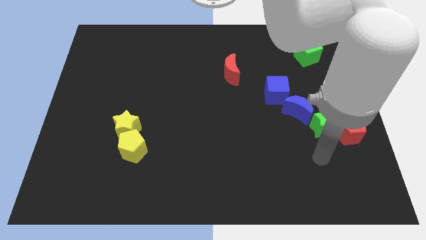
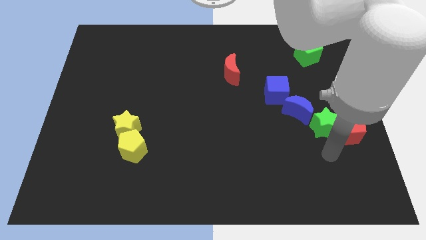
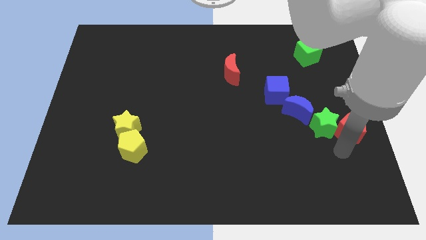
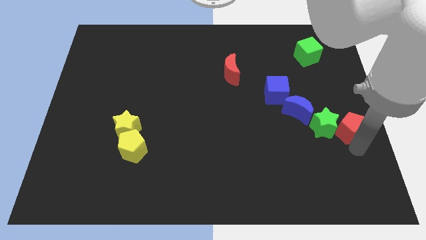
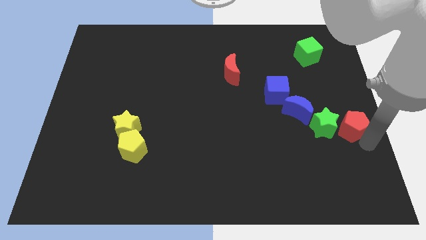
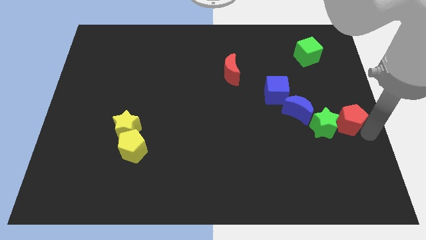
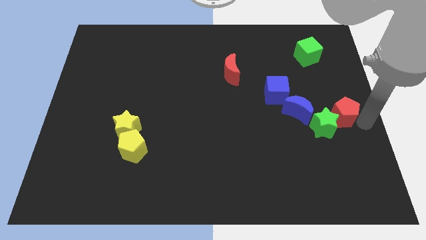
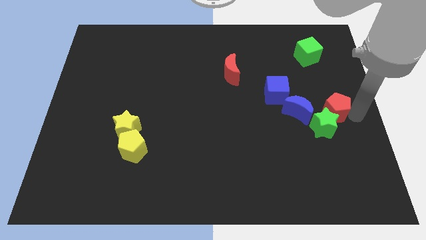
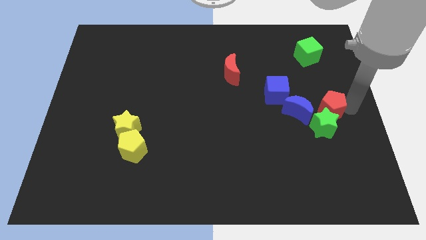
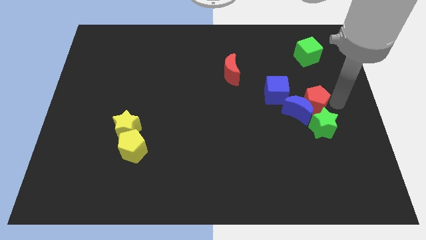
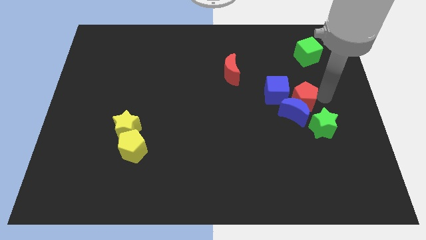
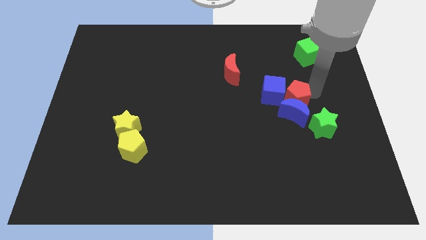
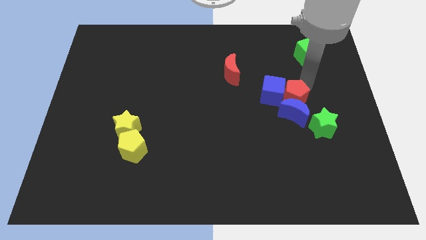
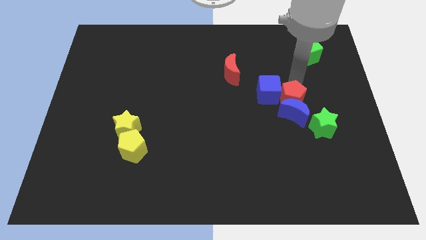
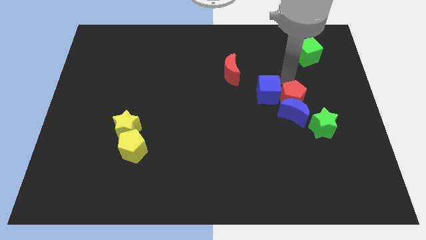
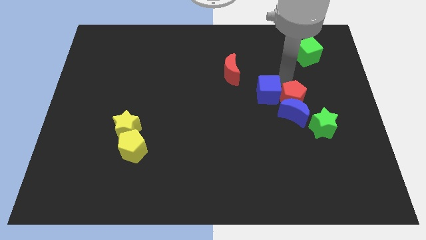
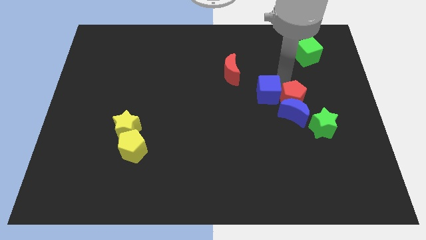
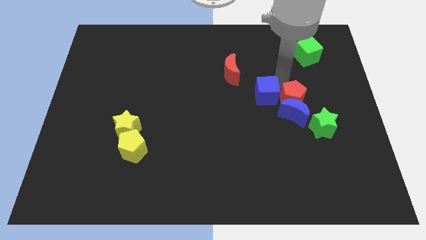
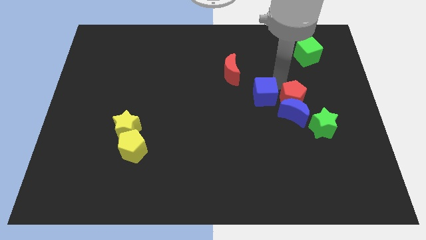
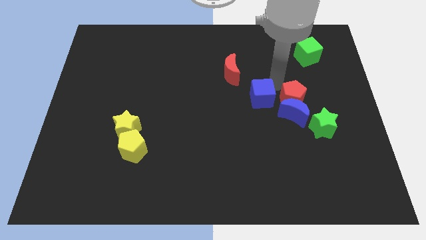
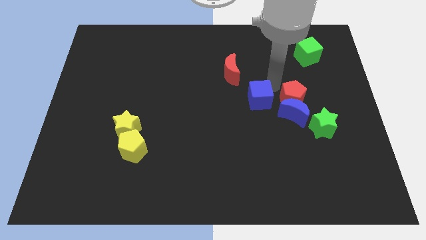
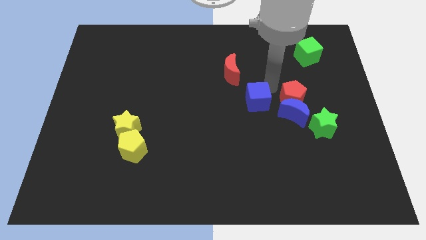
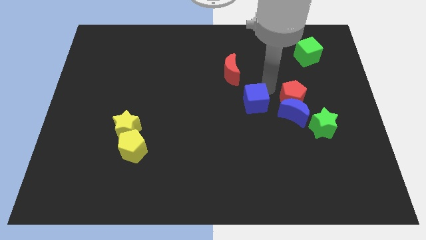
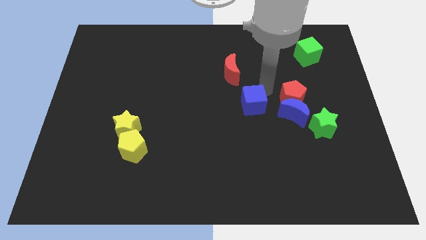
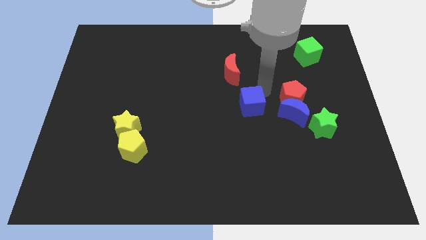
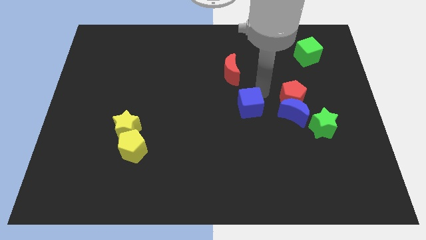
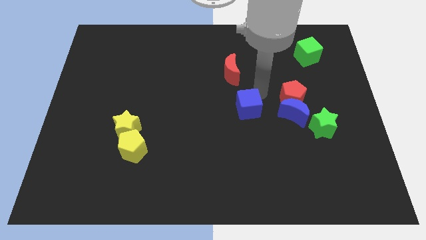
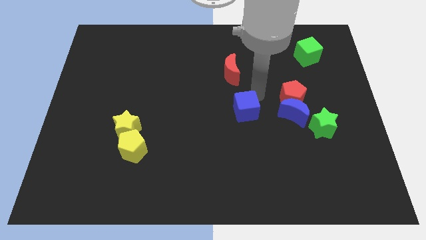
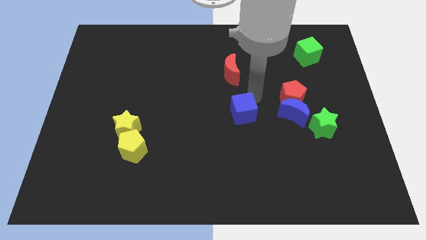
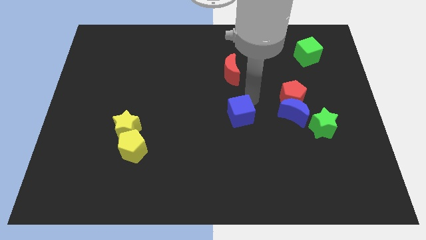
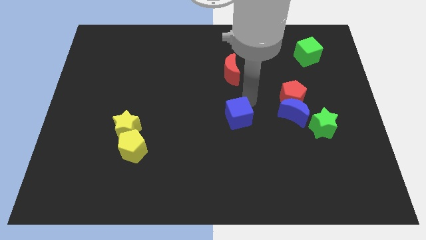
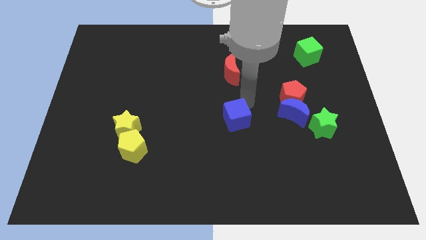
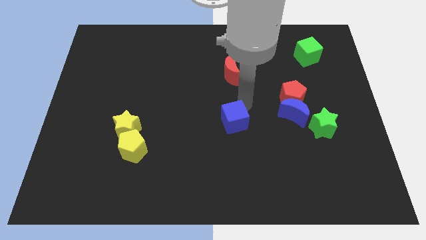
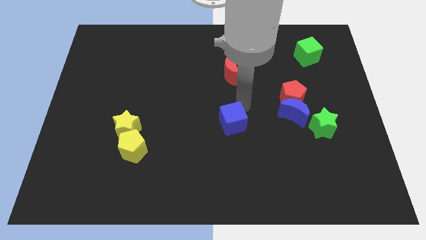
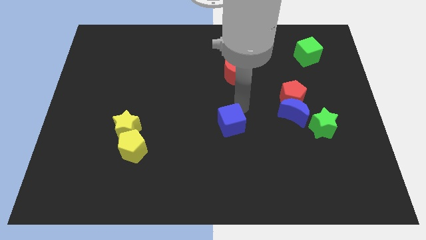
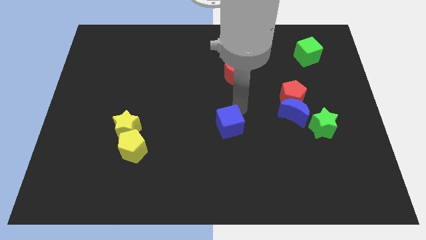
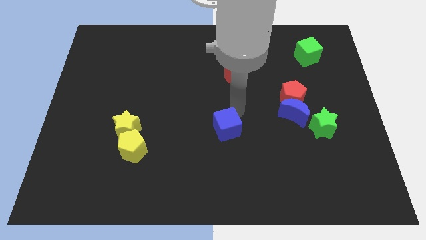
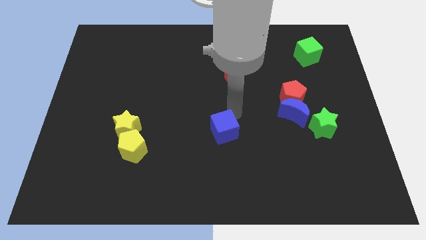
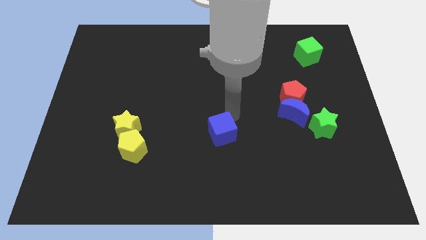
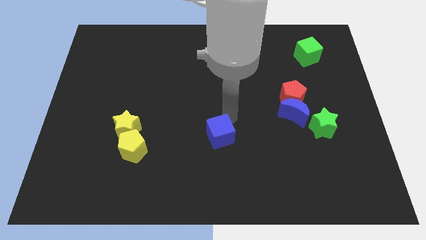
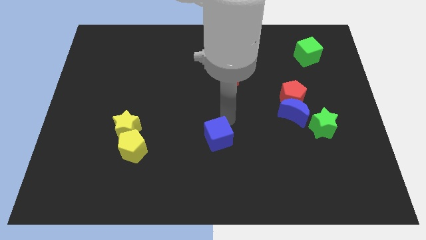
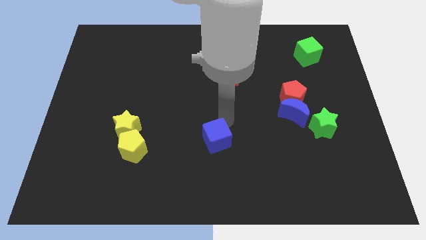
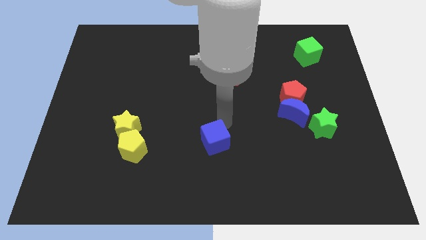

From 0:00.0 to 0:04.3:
slide the blue cube downwards and to the left diagonally

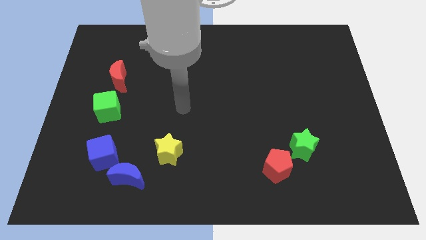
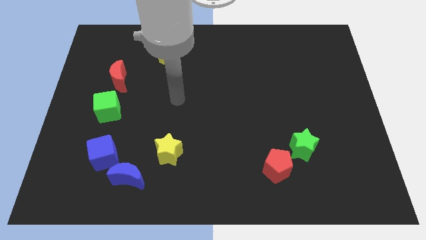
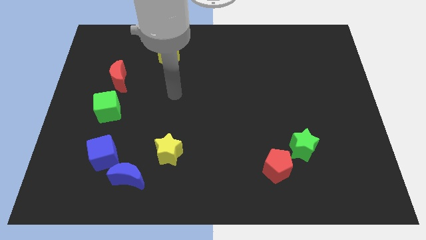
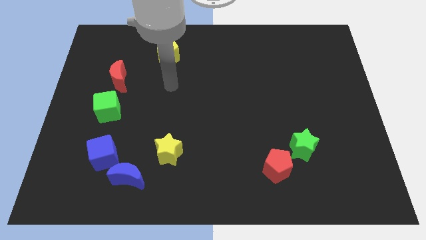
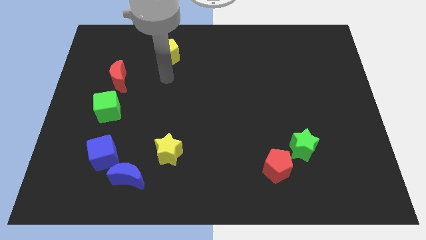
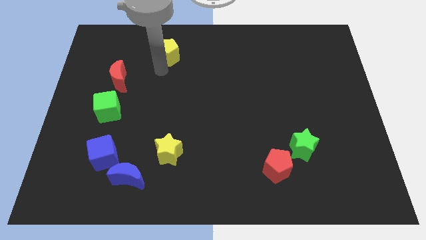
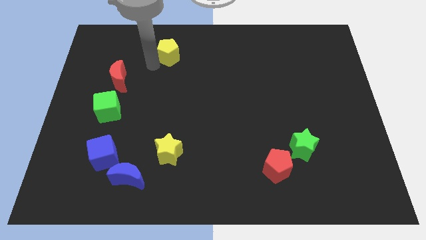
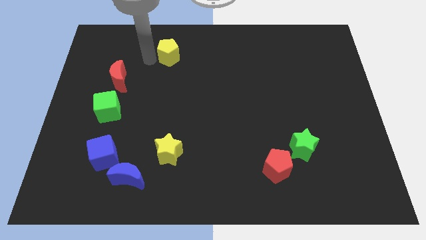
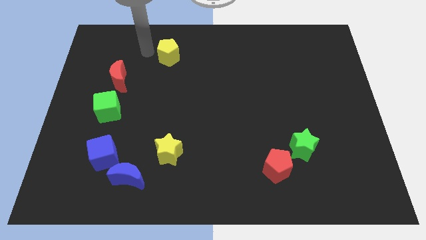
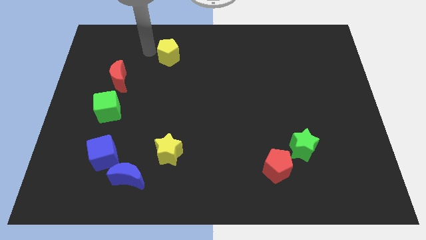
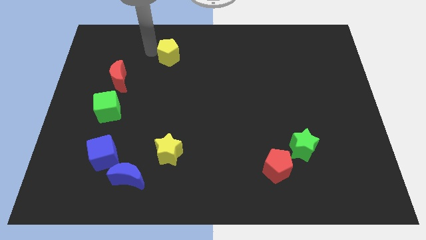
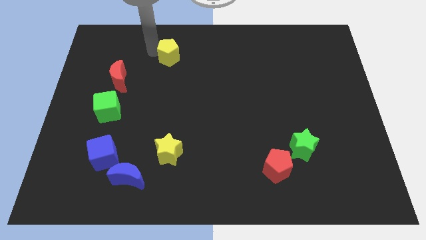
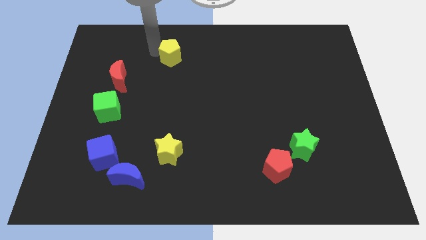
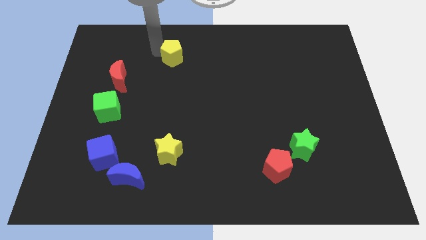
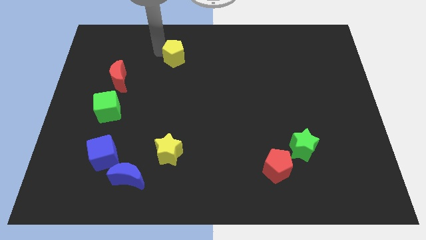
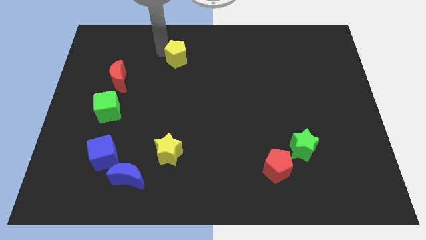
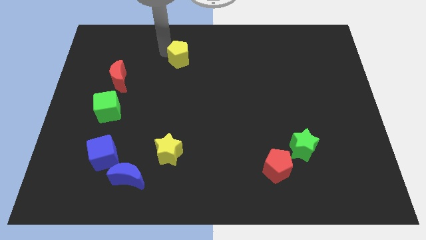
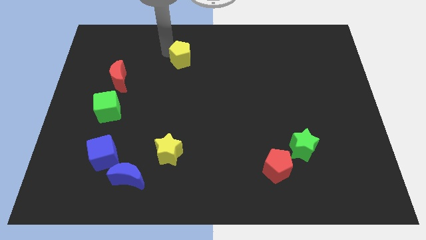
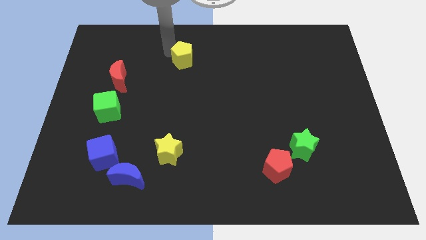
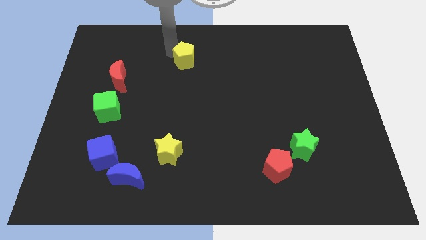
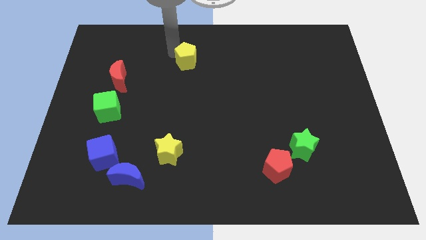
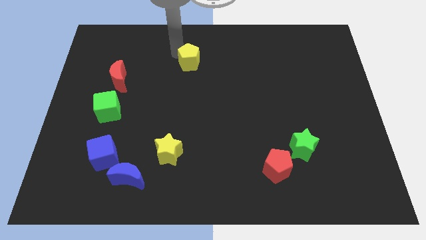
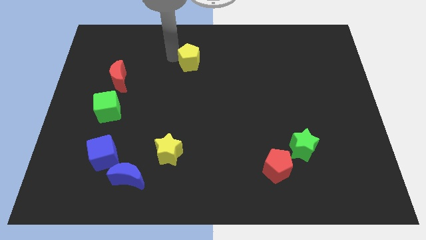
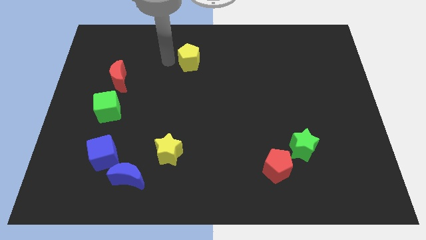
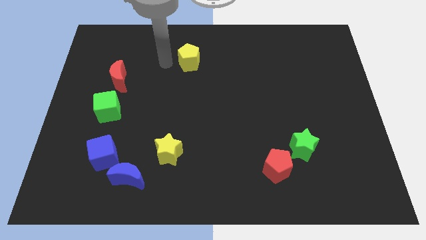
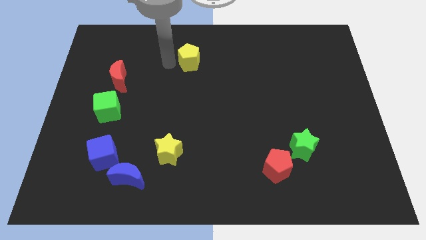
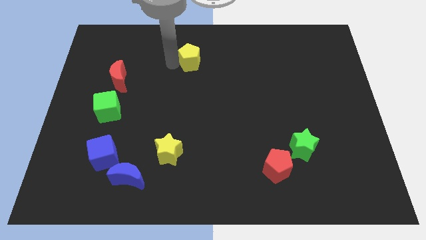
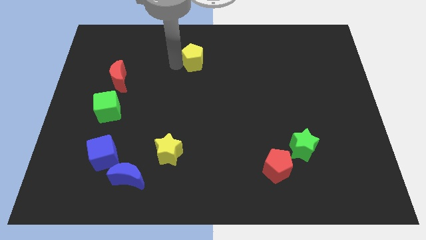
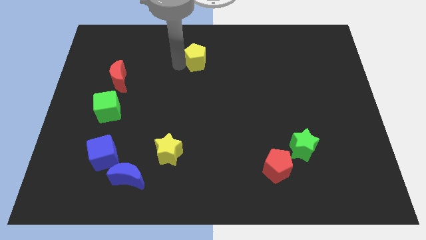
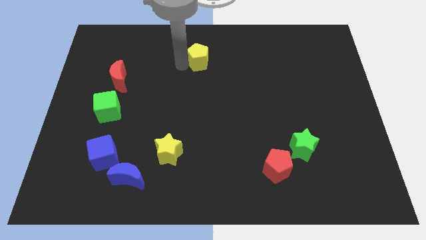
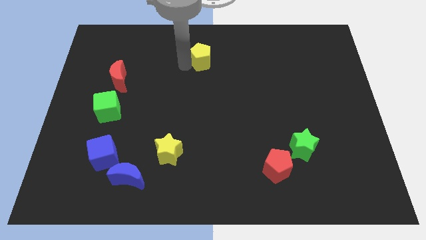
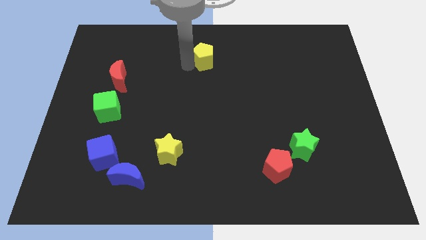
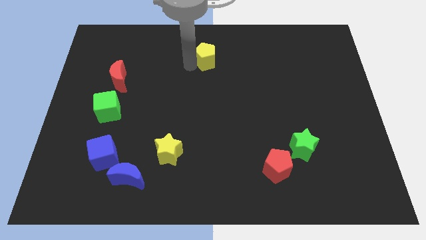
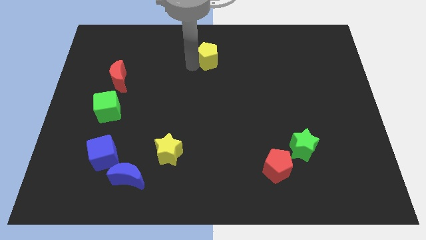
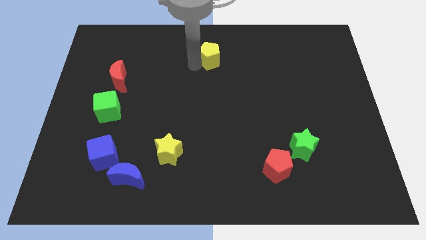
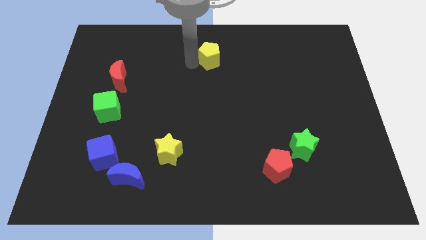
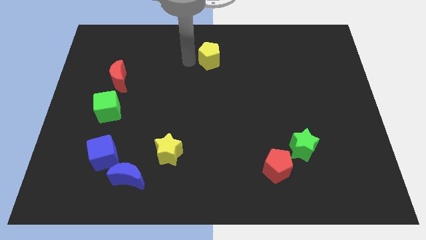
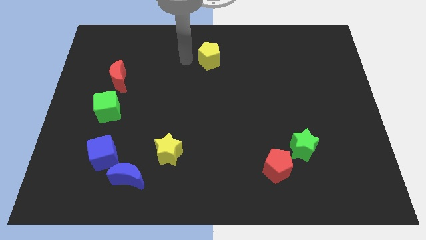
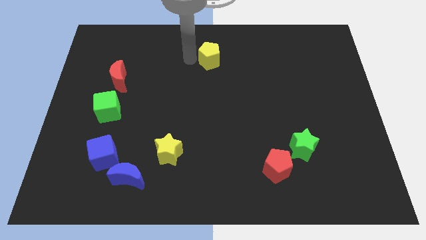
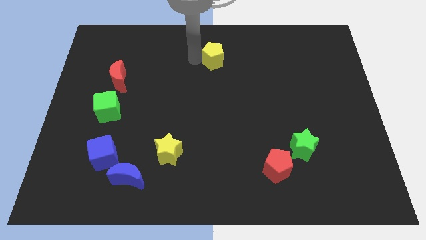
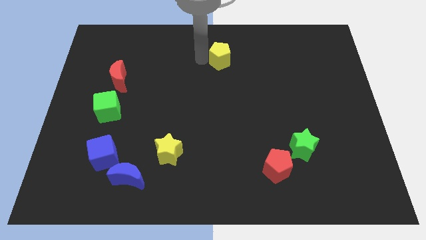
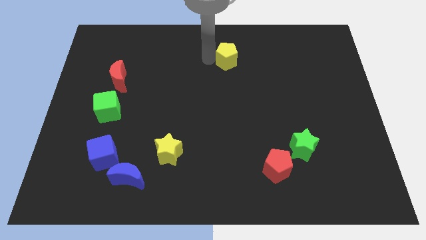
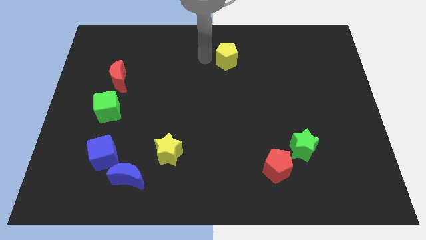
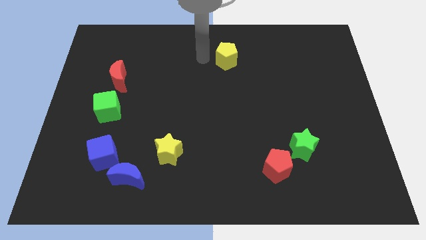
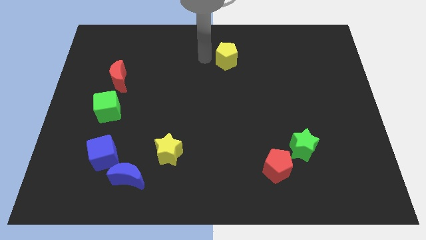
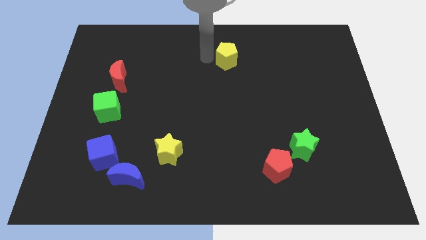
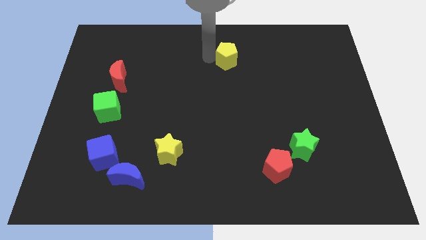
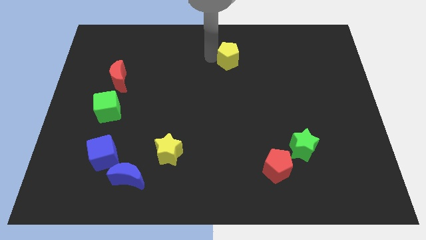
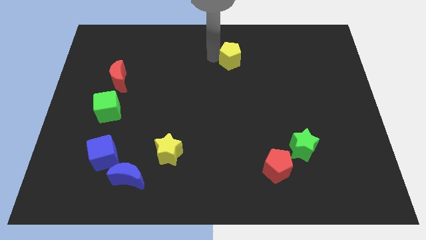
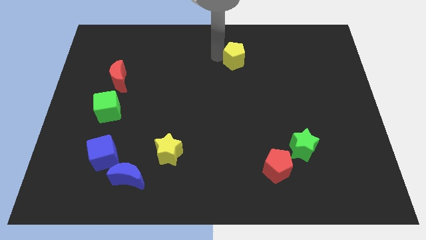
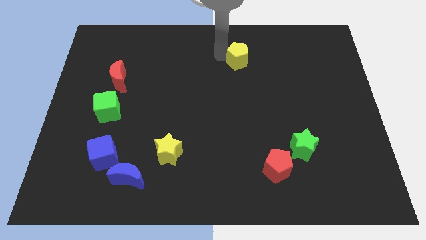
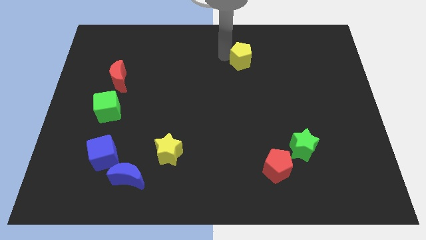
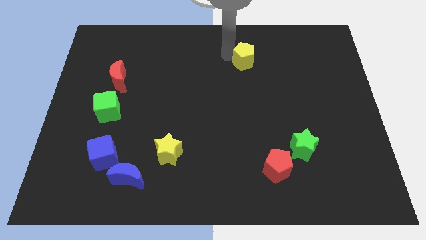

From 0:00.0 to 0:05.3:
push the yellow pentagon to the right
